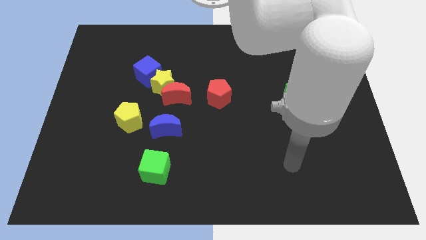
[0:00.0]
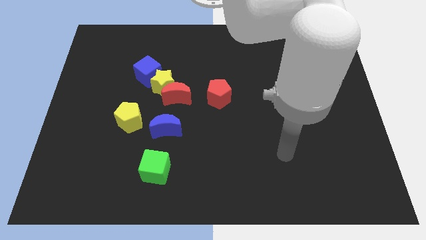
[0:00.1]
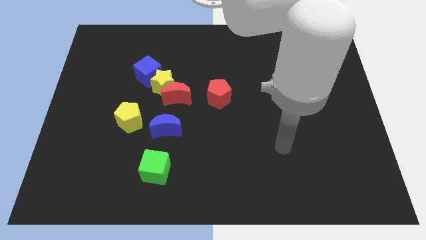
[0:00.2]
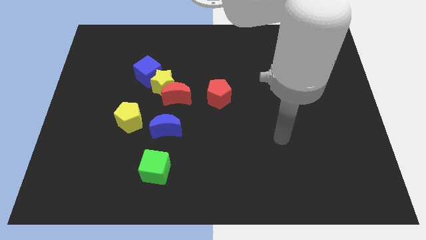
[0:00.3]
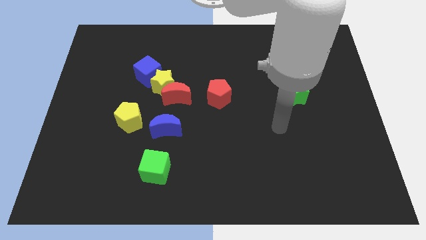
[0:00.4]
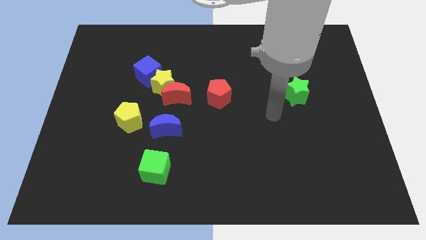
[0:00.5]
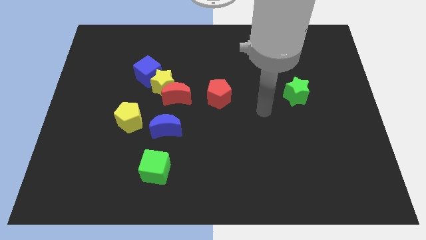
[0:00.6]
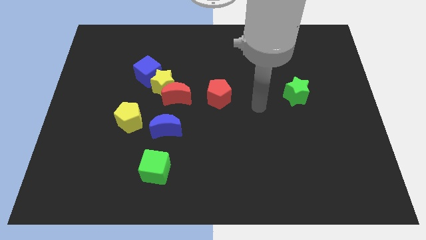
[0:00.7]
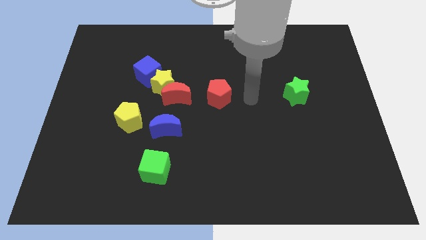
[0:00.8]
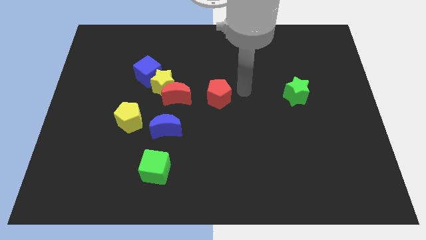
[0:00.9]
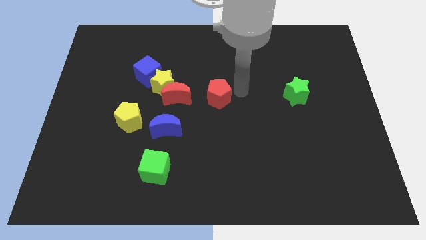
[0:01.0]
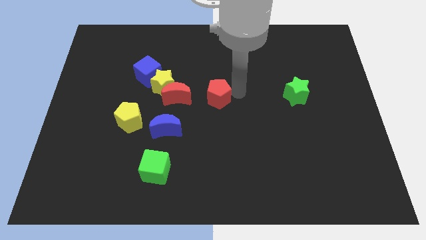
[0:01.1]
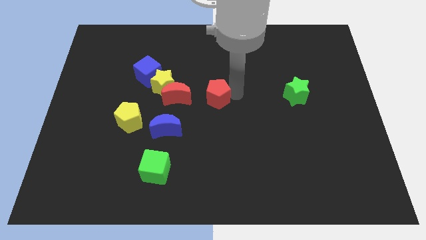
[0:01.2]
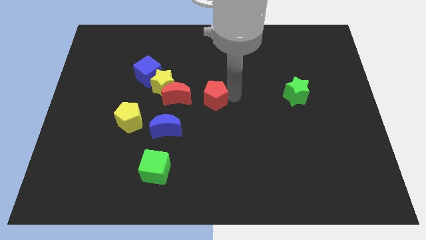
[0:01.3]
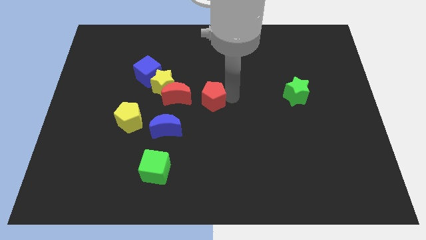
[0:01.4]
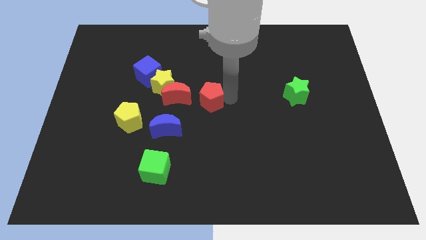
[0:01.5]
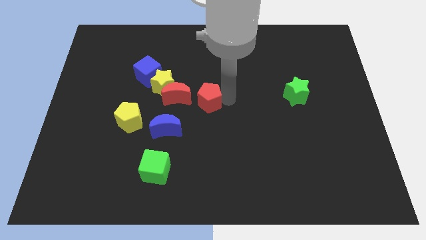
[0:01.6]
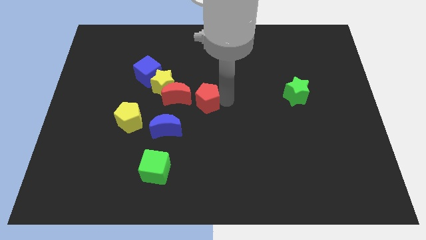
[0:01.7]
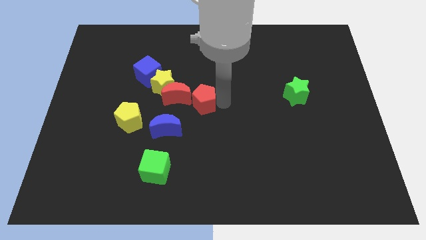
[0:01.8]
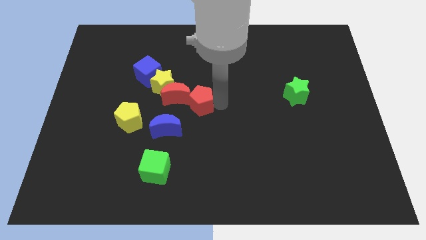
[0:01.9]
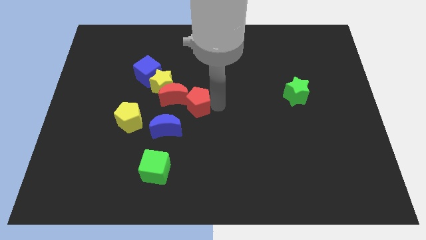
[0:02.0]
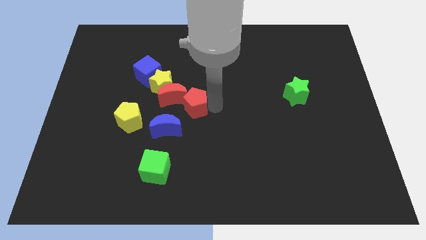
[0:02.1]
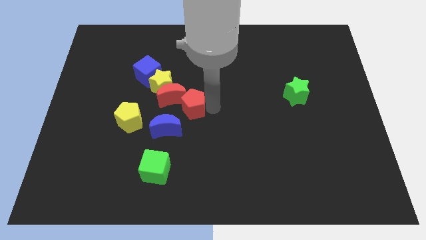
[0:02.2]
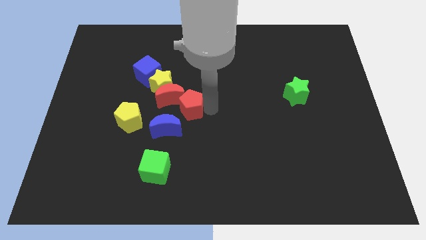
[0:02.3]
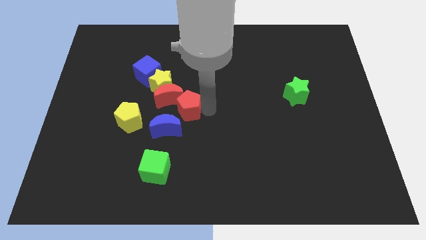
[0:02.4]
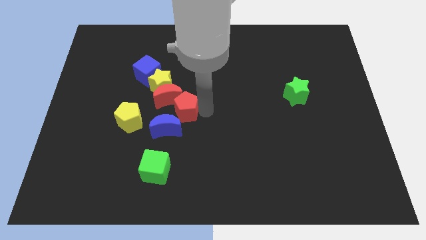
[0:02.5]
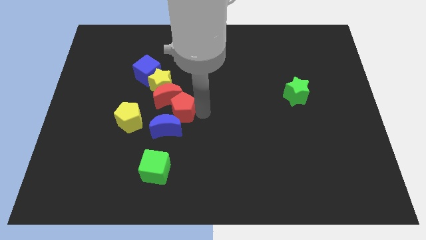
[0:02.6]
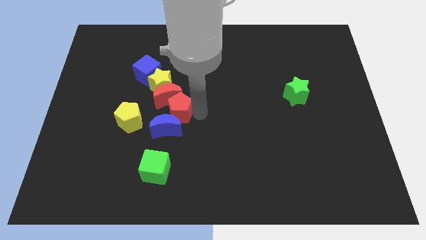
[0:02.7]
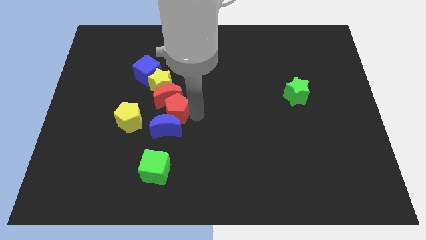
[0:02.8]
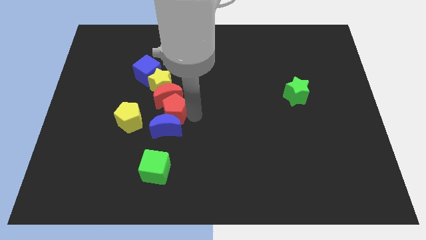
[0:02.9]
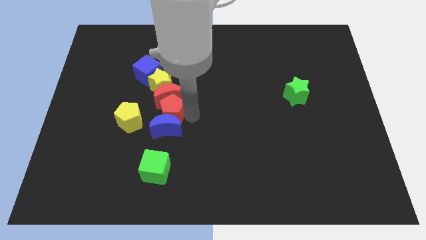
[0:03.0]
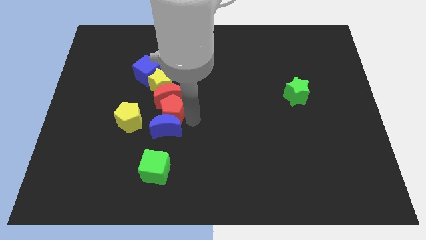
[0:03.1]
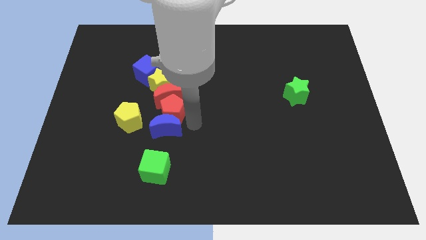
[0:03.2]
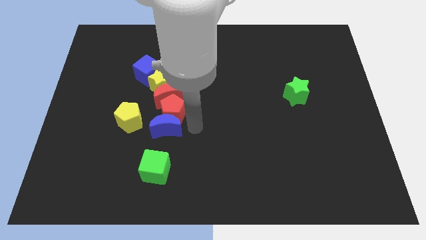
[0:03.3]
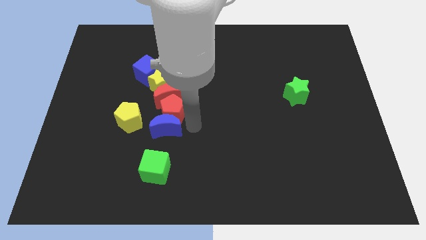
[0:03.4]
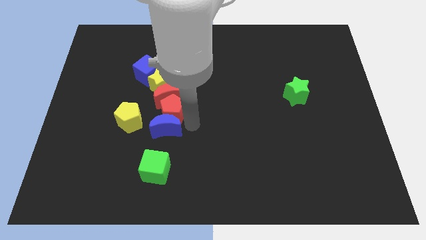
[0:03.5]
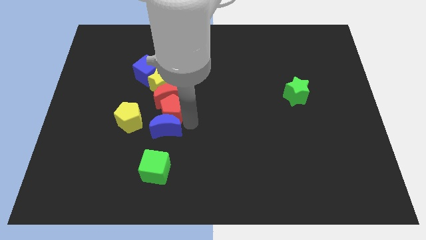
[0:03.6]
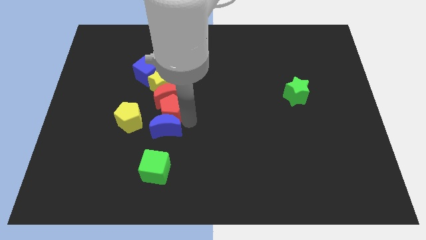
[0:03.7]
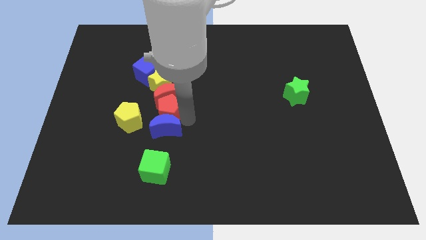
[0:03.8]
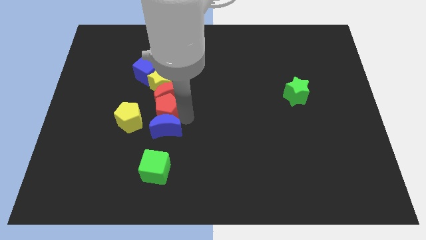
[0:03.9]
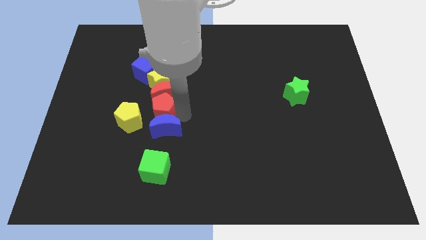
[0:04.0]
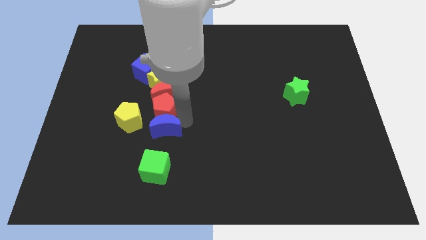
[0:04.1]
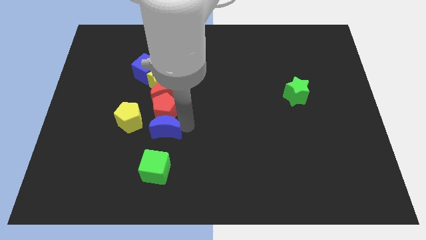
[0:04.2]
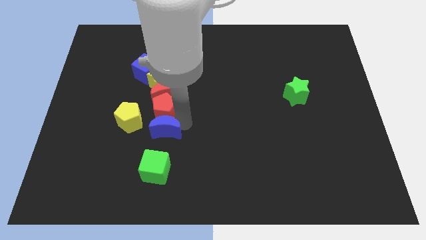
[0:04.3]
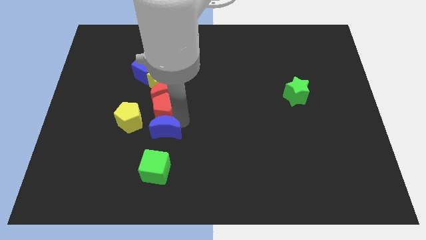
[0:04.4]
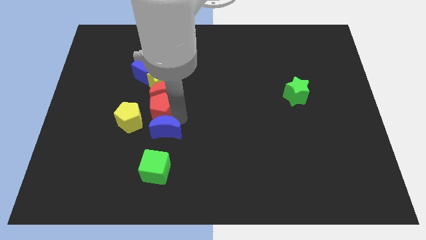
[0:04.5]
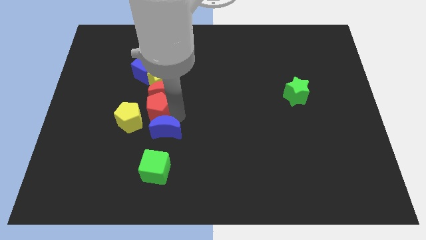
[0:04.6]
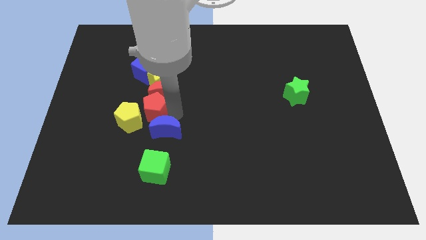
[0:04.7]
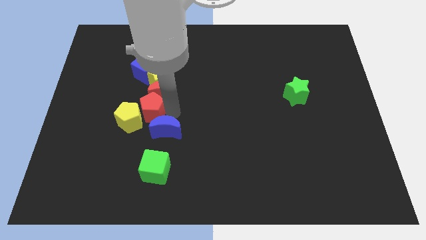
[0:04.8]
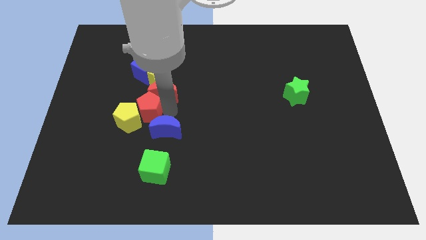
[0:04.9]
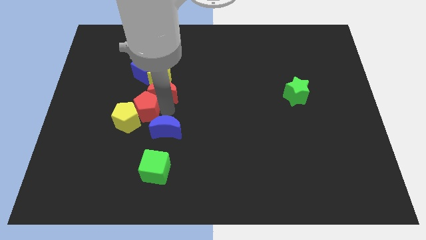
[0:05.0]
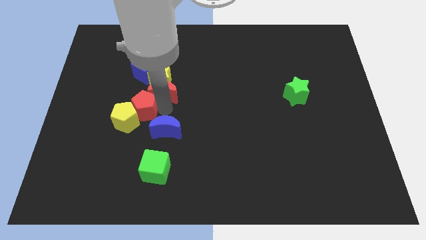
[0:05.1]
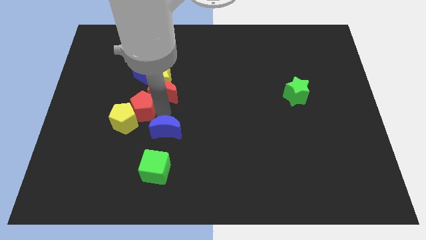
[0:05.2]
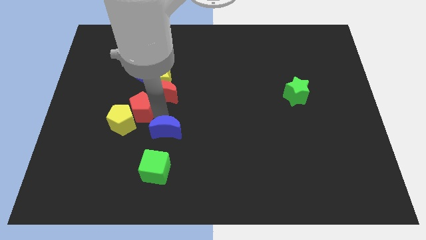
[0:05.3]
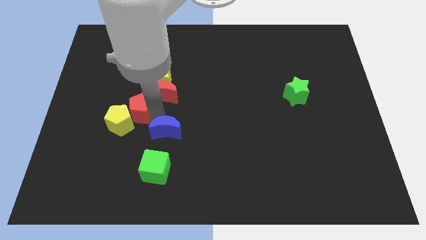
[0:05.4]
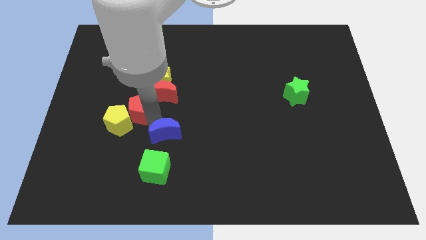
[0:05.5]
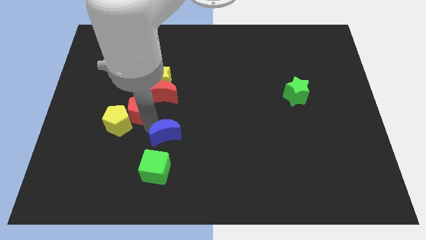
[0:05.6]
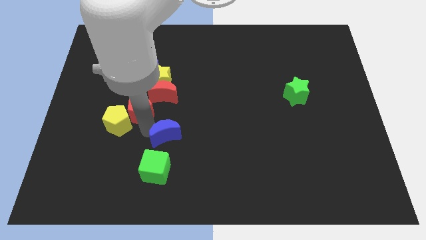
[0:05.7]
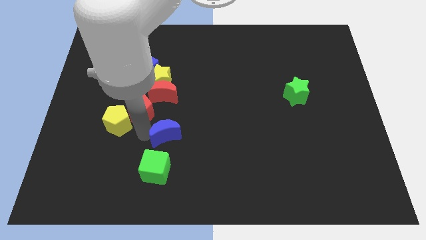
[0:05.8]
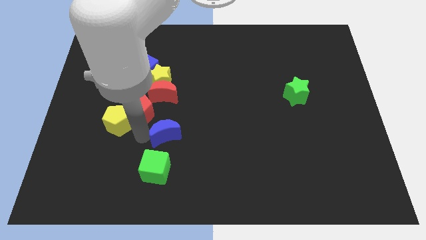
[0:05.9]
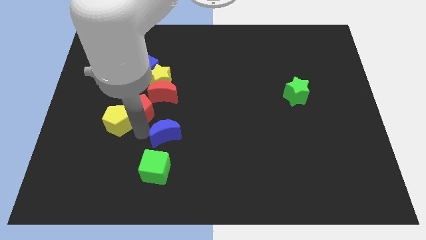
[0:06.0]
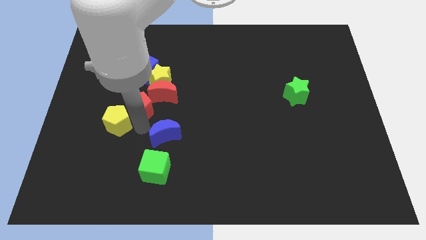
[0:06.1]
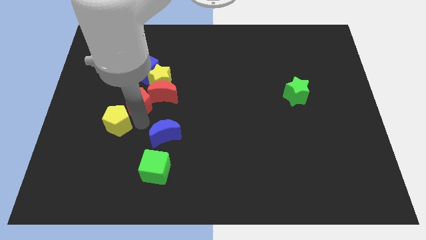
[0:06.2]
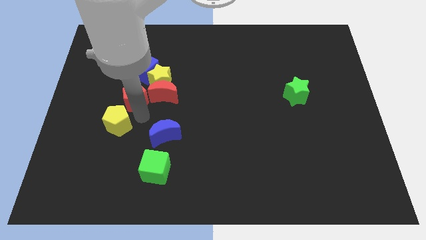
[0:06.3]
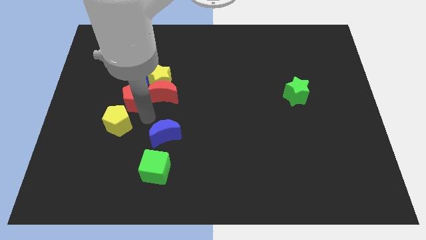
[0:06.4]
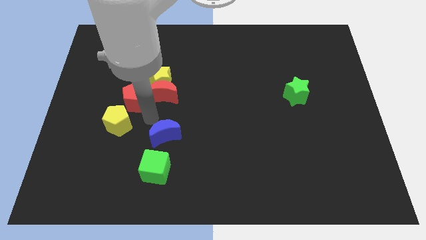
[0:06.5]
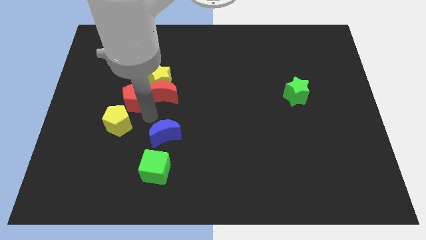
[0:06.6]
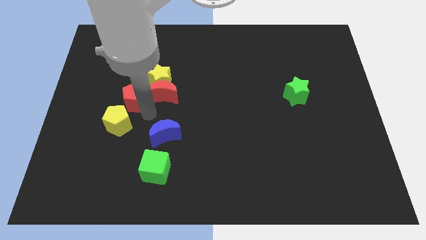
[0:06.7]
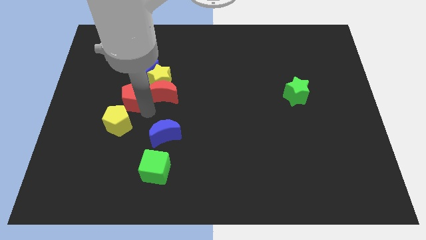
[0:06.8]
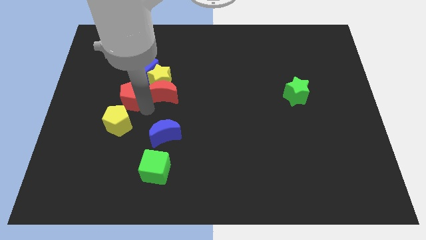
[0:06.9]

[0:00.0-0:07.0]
slide the red pentagon to the bottom left of the blue cube
